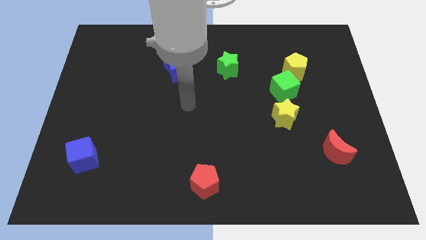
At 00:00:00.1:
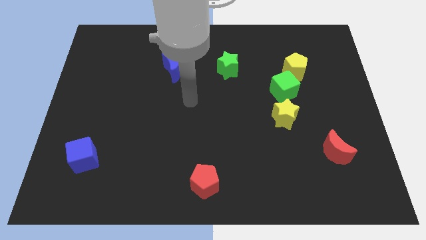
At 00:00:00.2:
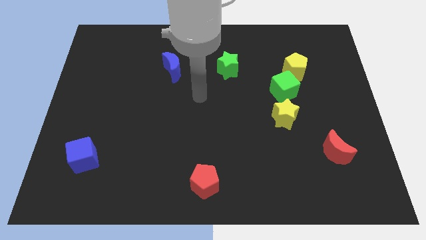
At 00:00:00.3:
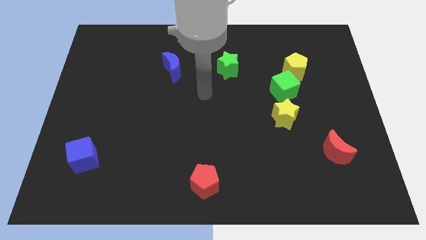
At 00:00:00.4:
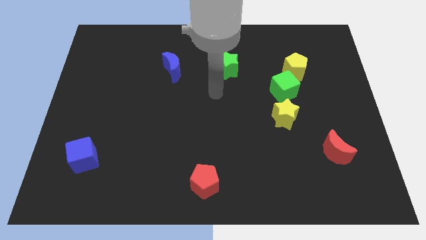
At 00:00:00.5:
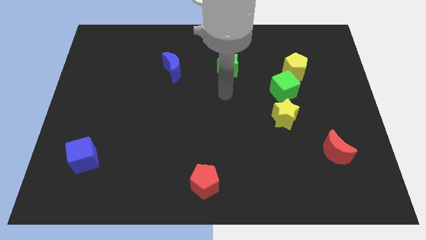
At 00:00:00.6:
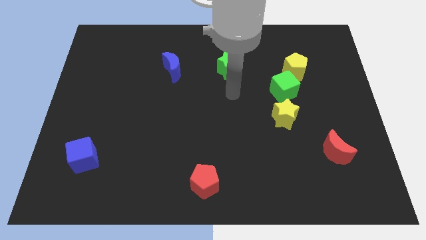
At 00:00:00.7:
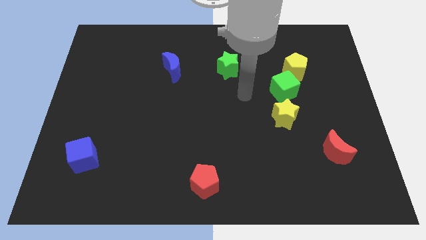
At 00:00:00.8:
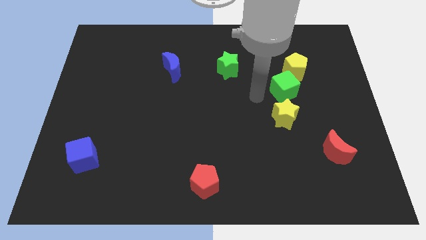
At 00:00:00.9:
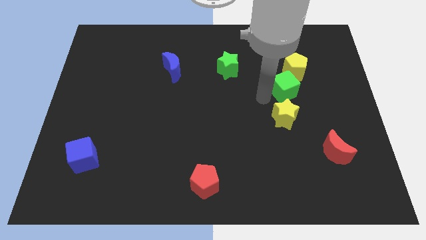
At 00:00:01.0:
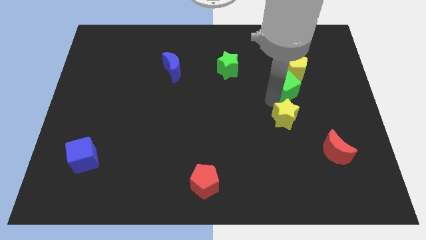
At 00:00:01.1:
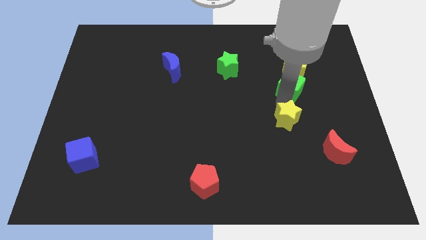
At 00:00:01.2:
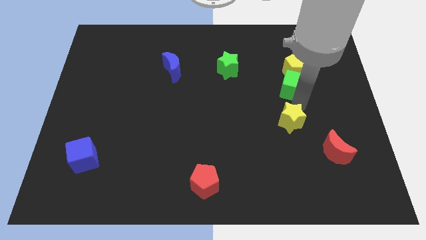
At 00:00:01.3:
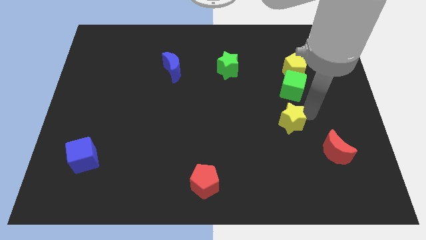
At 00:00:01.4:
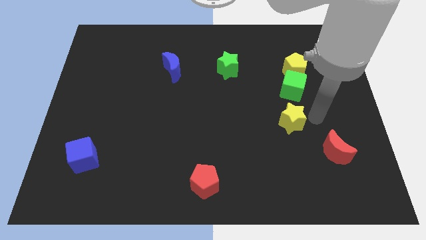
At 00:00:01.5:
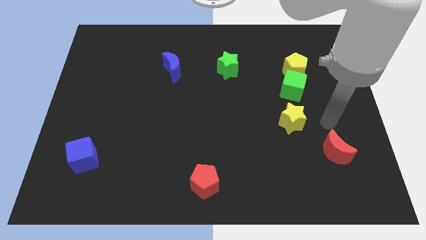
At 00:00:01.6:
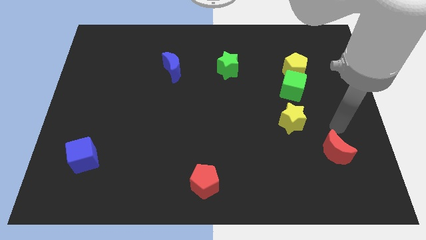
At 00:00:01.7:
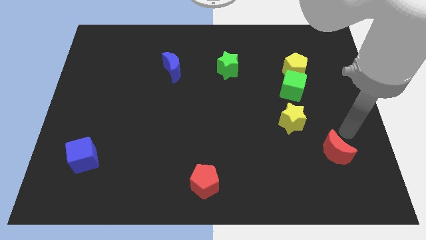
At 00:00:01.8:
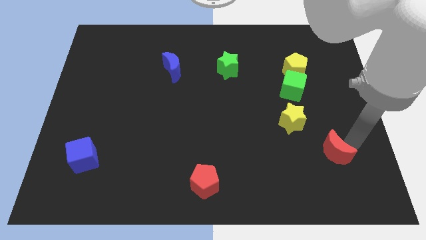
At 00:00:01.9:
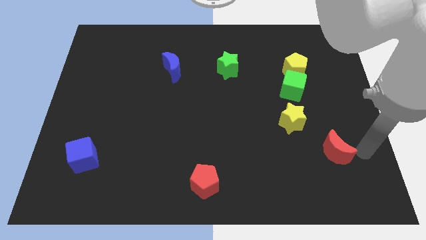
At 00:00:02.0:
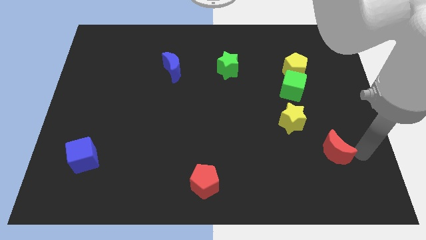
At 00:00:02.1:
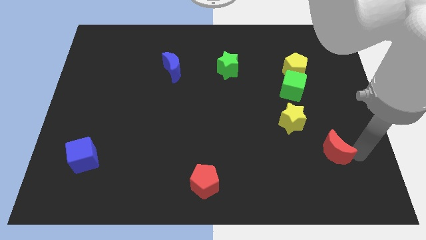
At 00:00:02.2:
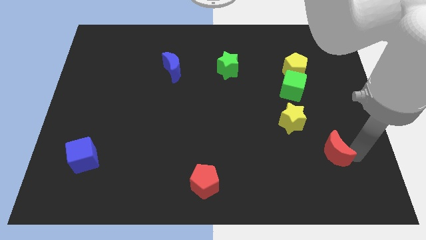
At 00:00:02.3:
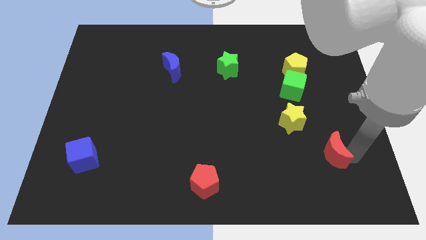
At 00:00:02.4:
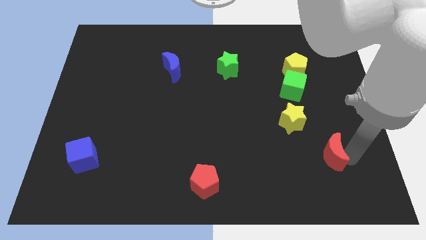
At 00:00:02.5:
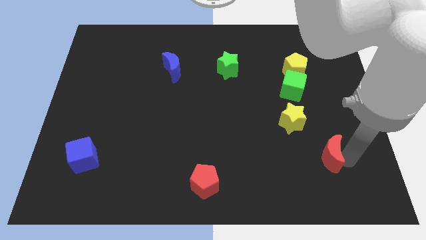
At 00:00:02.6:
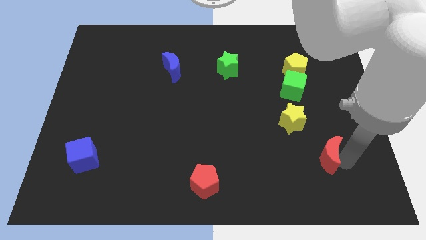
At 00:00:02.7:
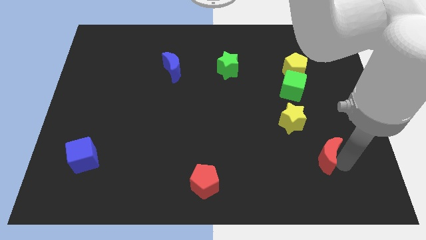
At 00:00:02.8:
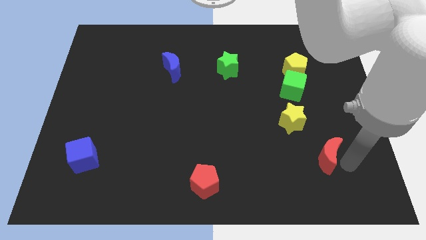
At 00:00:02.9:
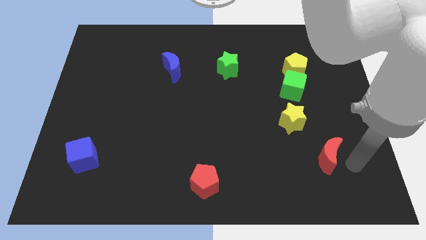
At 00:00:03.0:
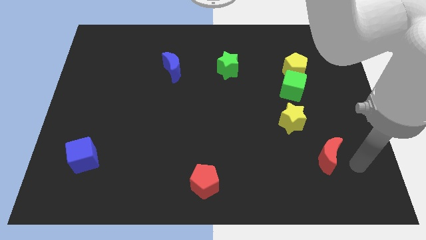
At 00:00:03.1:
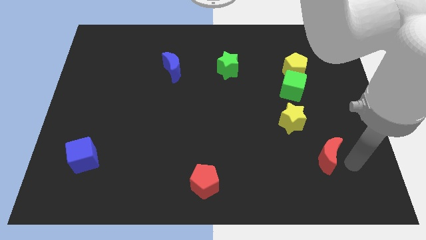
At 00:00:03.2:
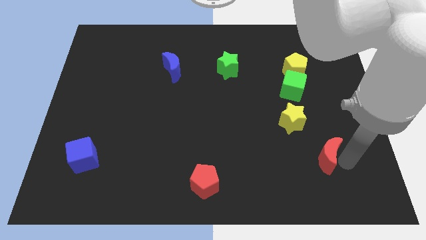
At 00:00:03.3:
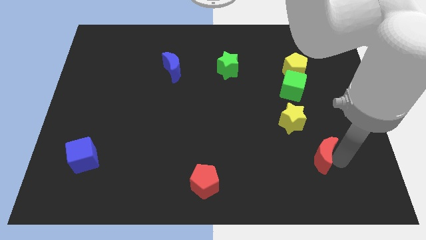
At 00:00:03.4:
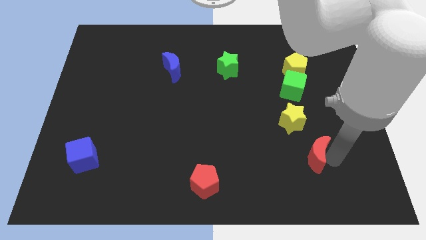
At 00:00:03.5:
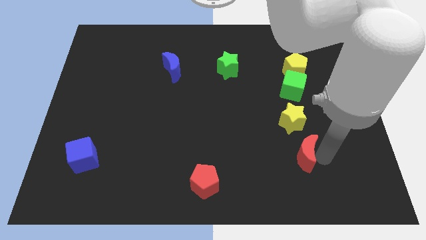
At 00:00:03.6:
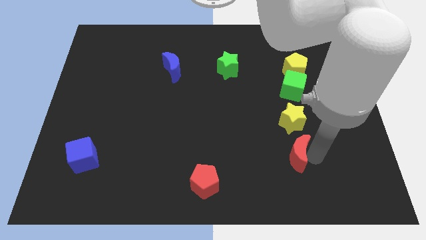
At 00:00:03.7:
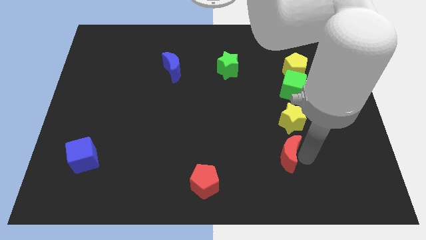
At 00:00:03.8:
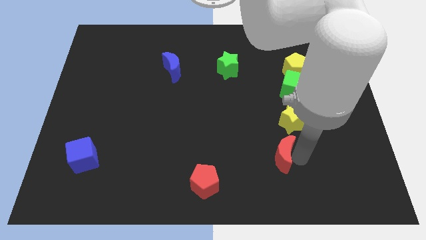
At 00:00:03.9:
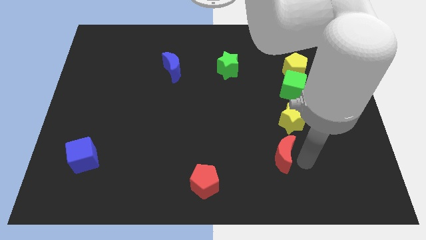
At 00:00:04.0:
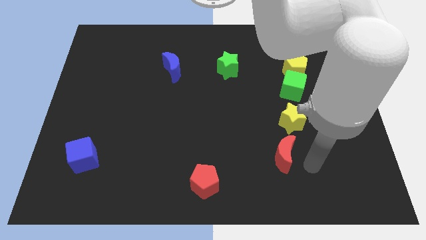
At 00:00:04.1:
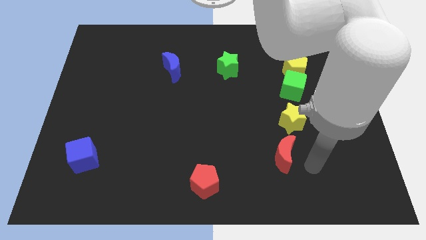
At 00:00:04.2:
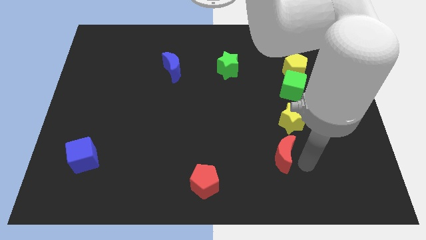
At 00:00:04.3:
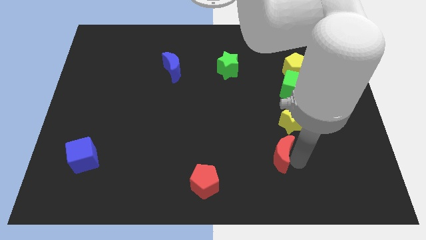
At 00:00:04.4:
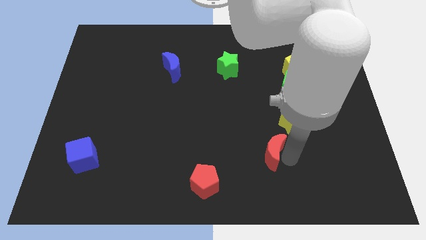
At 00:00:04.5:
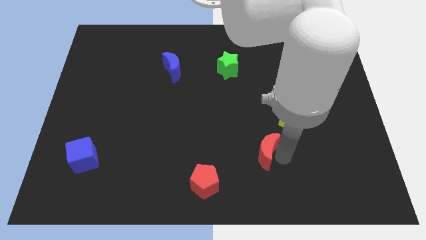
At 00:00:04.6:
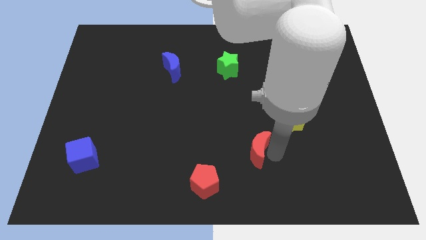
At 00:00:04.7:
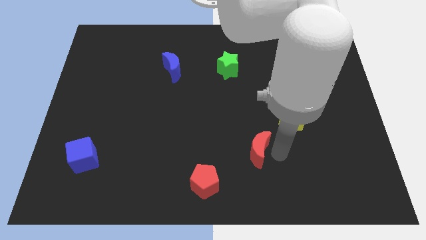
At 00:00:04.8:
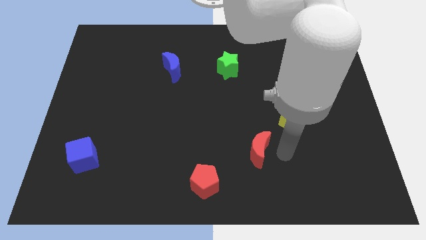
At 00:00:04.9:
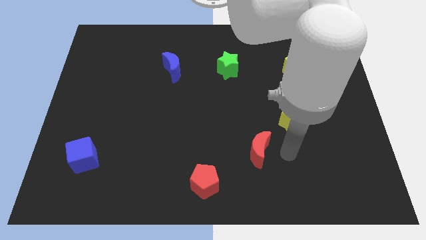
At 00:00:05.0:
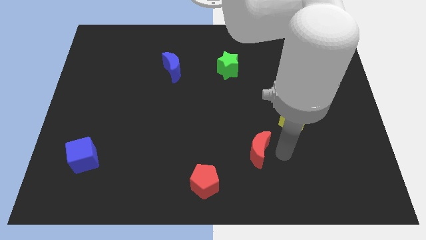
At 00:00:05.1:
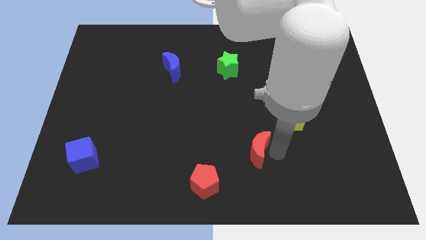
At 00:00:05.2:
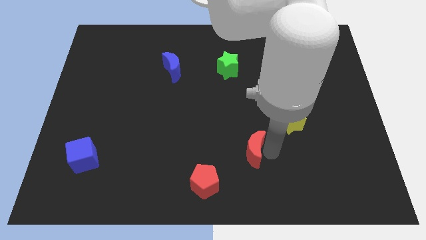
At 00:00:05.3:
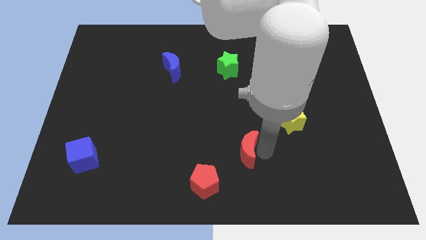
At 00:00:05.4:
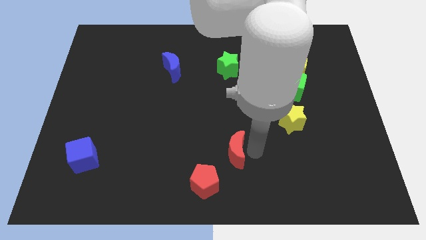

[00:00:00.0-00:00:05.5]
slide the red moon to the left

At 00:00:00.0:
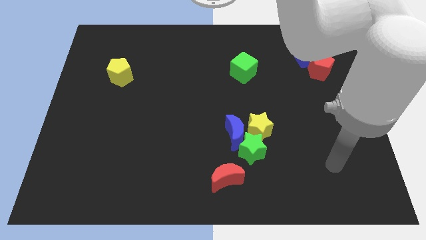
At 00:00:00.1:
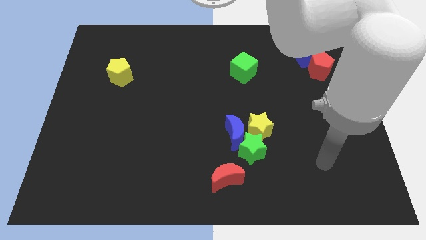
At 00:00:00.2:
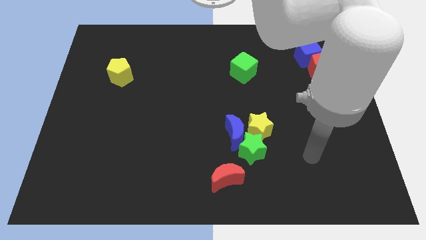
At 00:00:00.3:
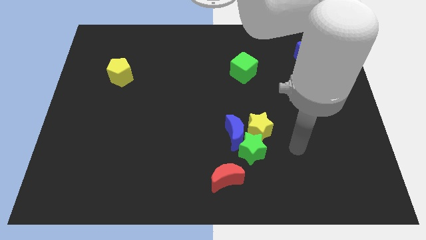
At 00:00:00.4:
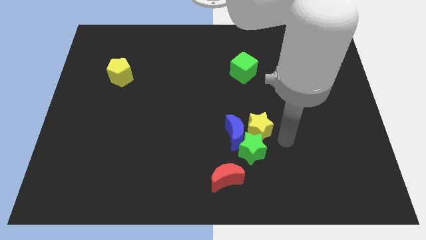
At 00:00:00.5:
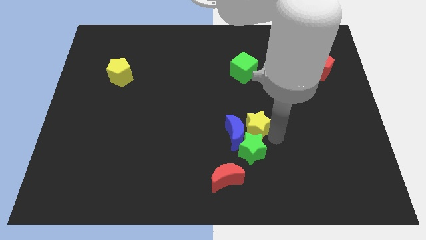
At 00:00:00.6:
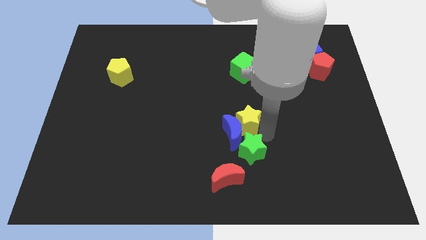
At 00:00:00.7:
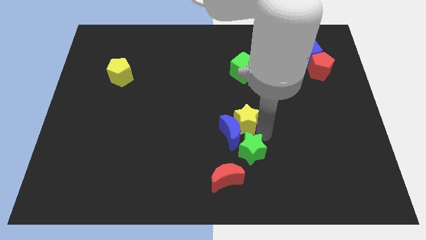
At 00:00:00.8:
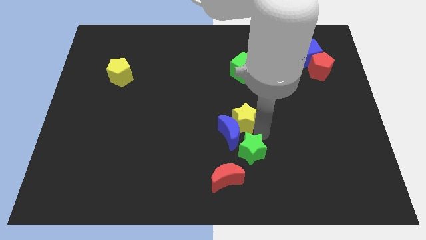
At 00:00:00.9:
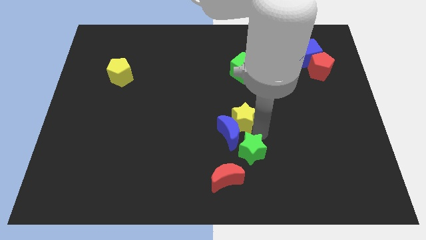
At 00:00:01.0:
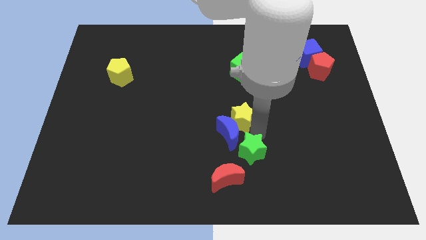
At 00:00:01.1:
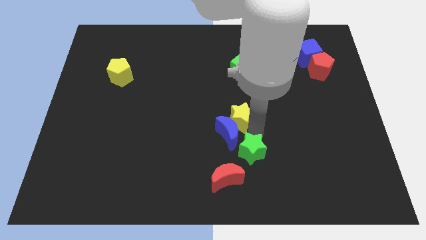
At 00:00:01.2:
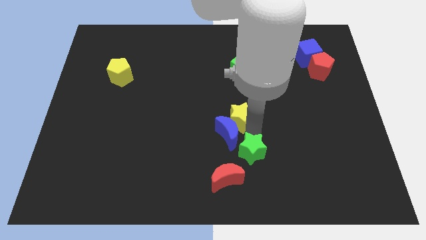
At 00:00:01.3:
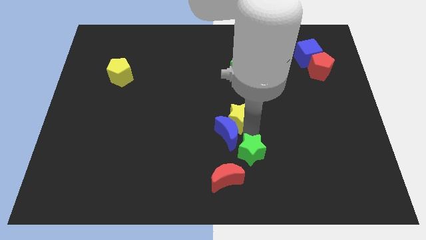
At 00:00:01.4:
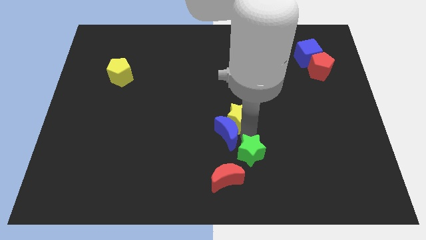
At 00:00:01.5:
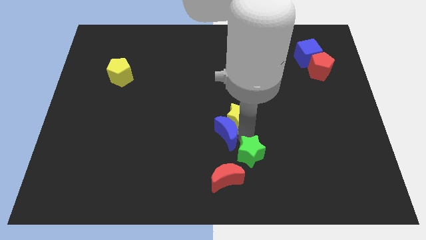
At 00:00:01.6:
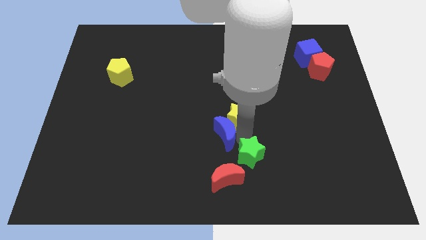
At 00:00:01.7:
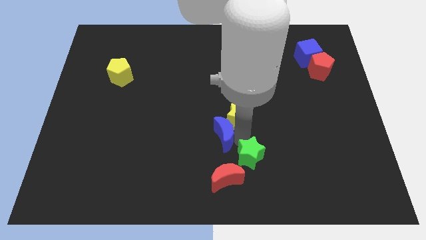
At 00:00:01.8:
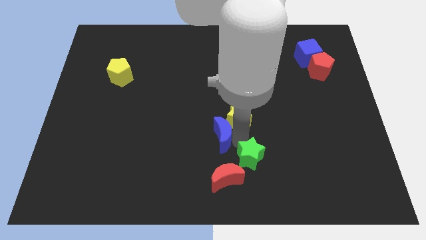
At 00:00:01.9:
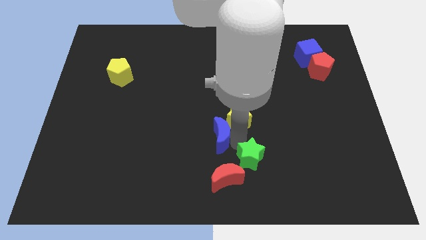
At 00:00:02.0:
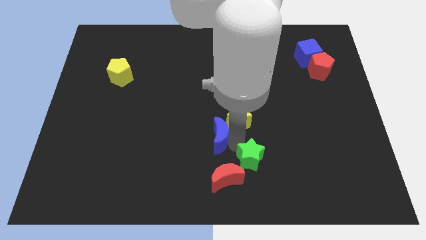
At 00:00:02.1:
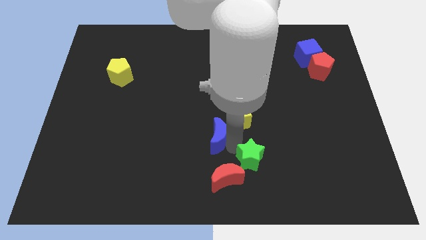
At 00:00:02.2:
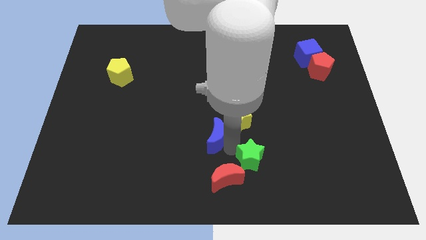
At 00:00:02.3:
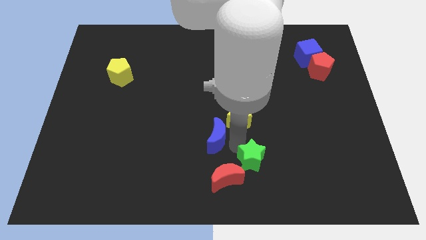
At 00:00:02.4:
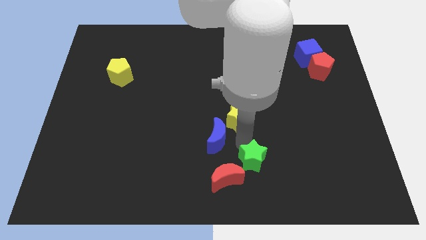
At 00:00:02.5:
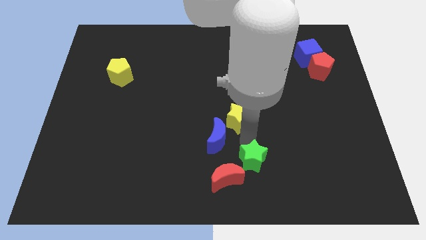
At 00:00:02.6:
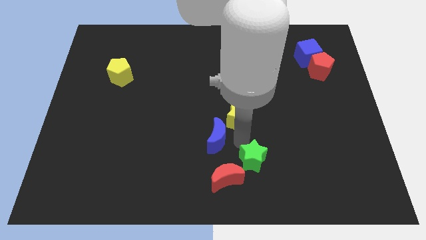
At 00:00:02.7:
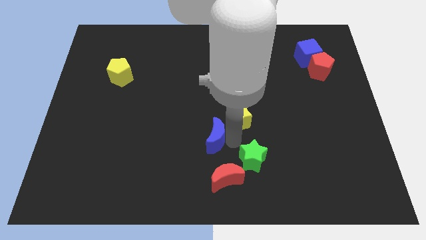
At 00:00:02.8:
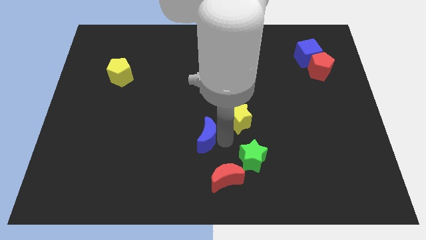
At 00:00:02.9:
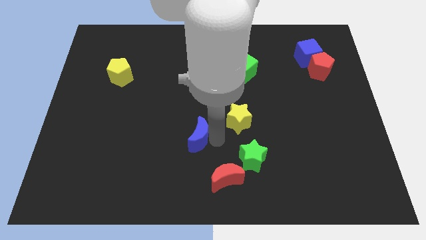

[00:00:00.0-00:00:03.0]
move the blue moon slightly to the left
